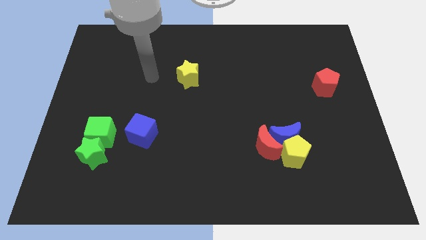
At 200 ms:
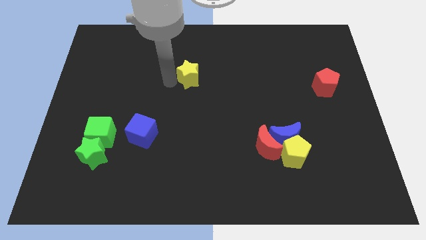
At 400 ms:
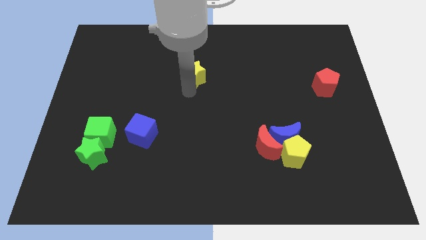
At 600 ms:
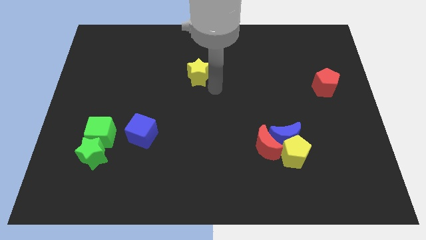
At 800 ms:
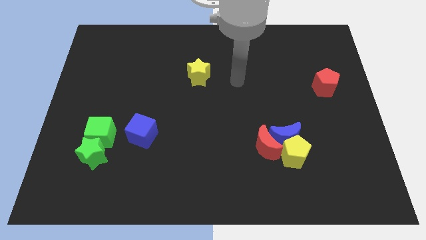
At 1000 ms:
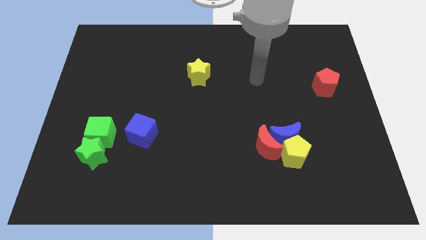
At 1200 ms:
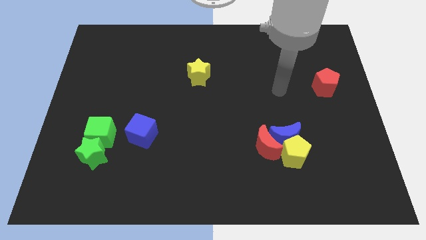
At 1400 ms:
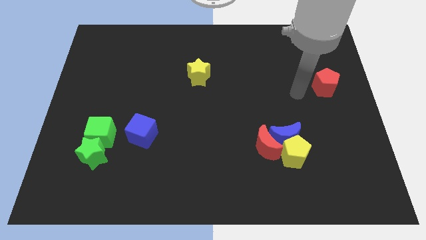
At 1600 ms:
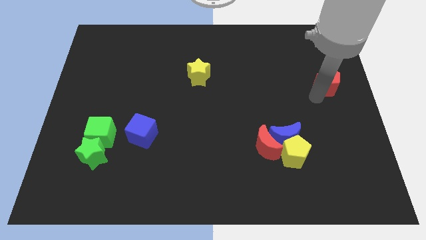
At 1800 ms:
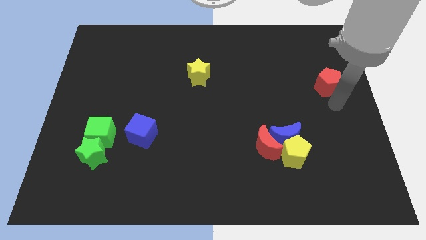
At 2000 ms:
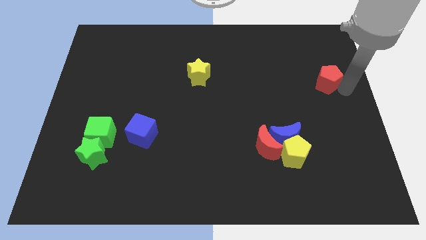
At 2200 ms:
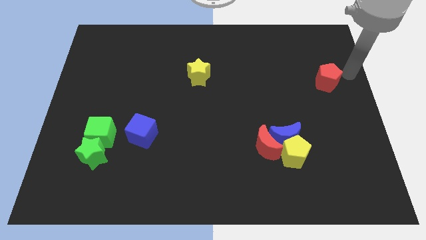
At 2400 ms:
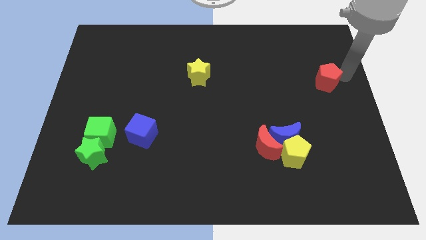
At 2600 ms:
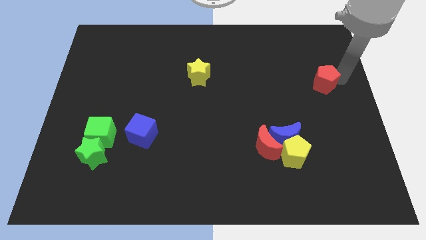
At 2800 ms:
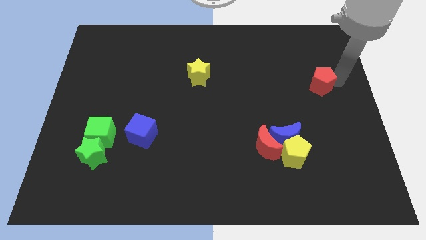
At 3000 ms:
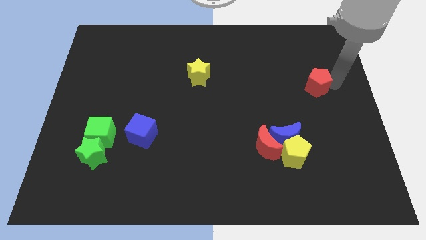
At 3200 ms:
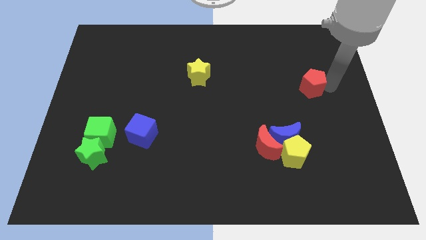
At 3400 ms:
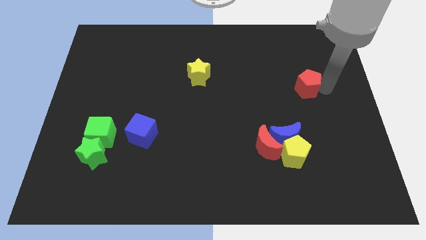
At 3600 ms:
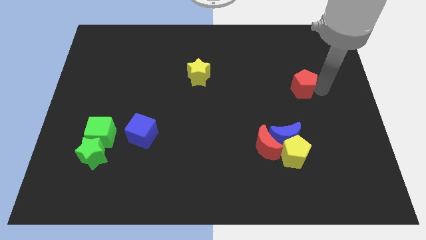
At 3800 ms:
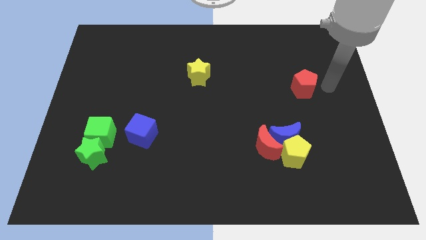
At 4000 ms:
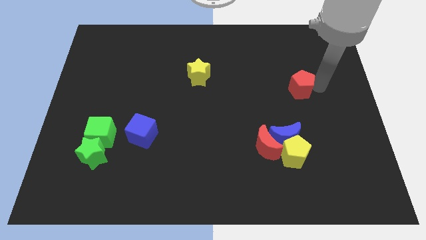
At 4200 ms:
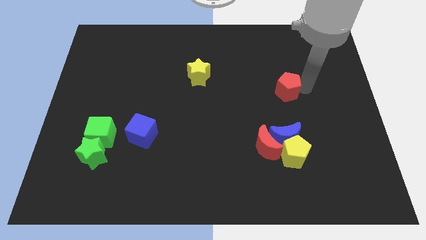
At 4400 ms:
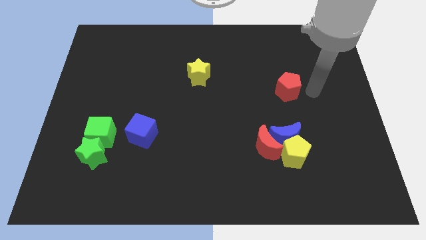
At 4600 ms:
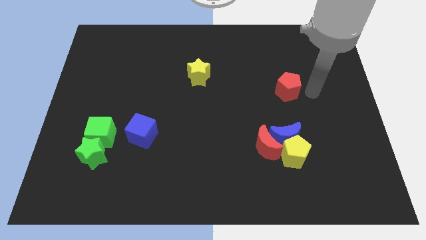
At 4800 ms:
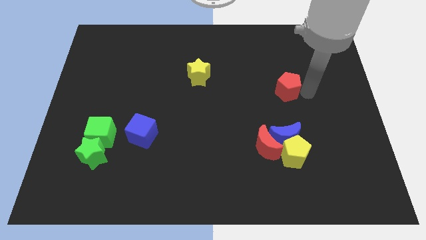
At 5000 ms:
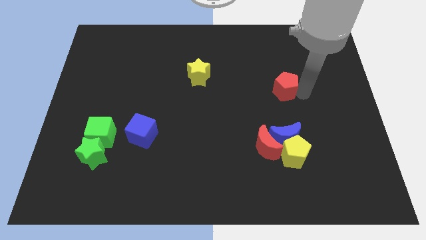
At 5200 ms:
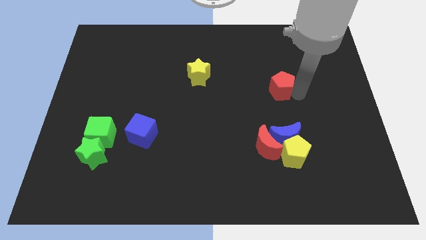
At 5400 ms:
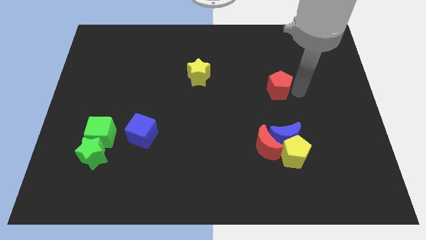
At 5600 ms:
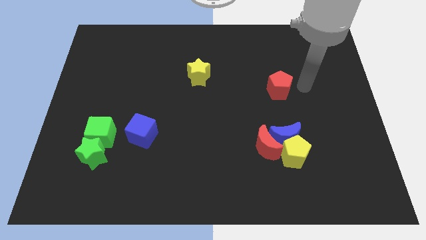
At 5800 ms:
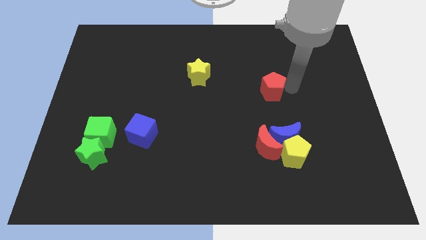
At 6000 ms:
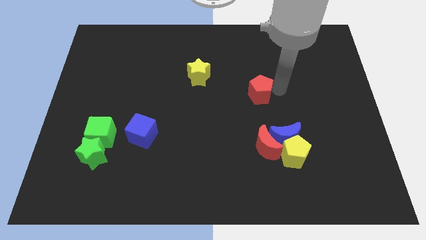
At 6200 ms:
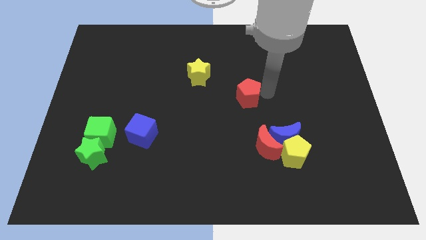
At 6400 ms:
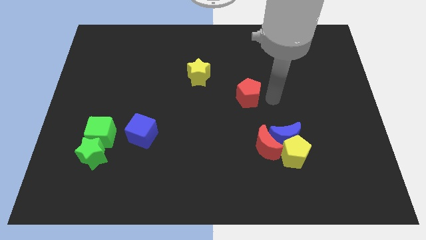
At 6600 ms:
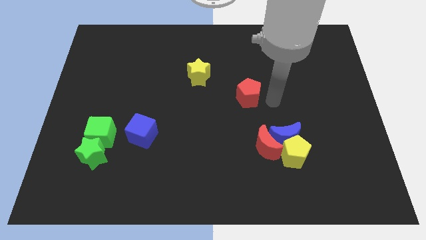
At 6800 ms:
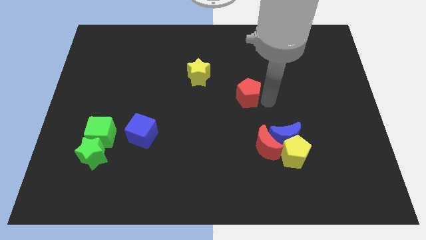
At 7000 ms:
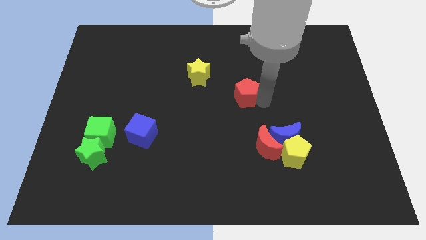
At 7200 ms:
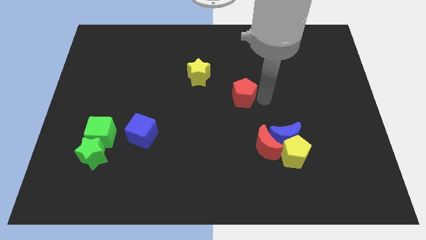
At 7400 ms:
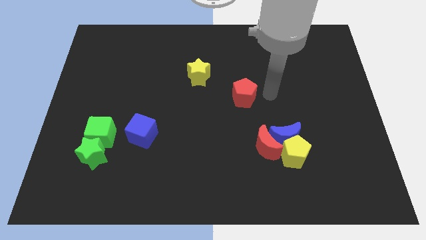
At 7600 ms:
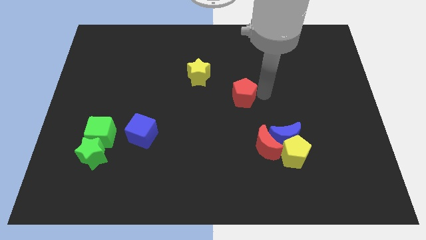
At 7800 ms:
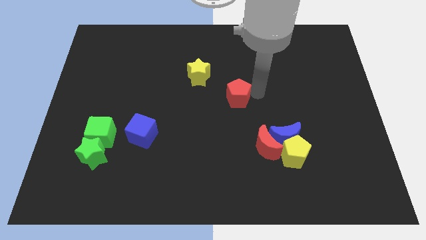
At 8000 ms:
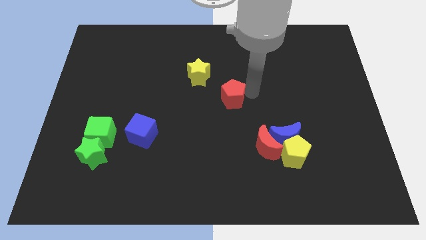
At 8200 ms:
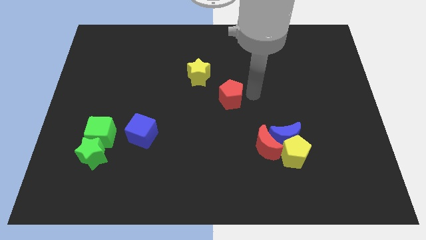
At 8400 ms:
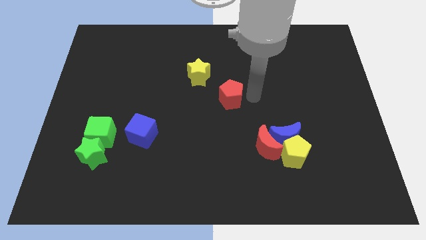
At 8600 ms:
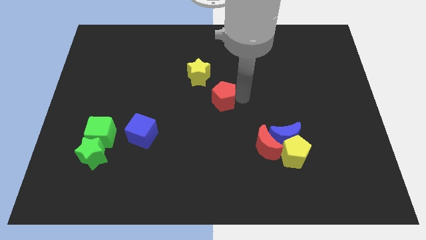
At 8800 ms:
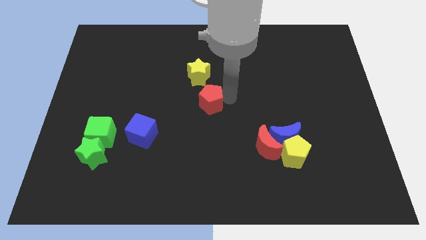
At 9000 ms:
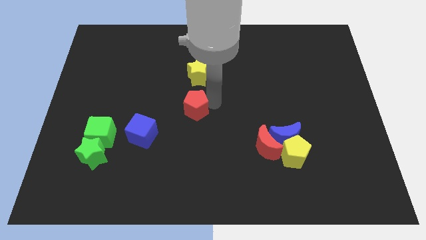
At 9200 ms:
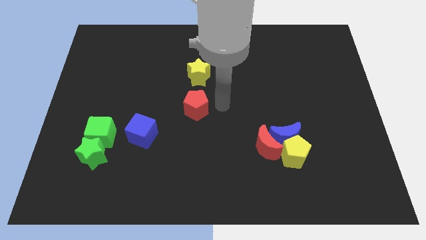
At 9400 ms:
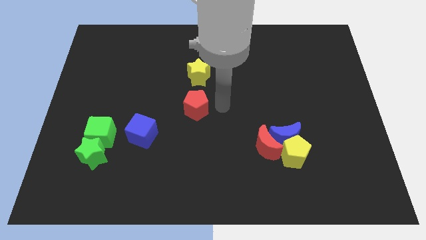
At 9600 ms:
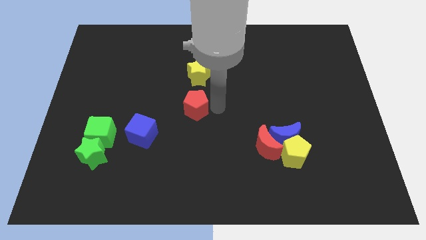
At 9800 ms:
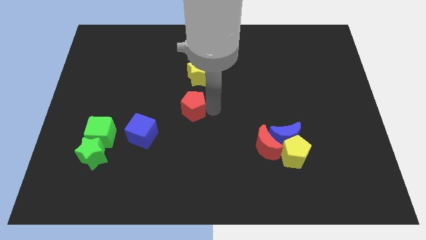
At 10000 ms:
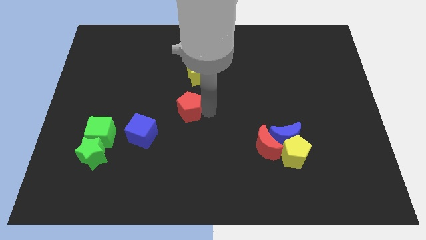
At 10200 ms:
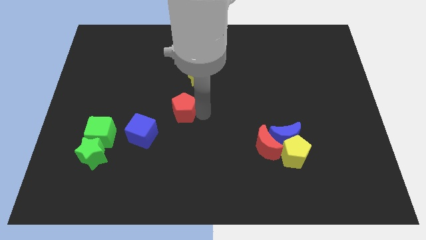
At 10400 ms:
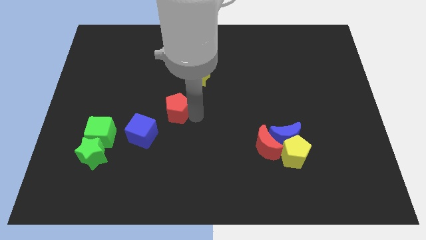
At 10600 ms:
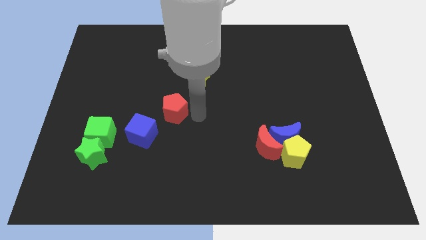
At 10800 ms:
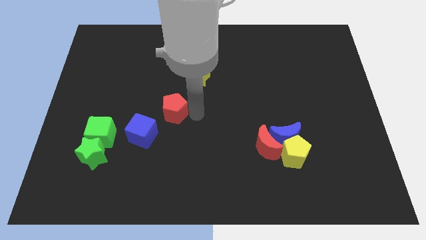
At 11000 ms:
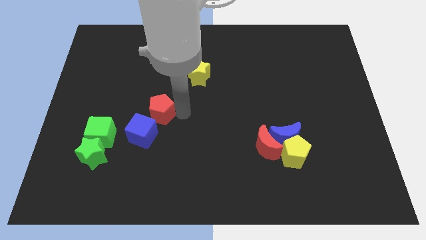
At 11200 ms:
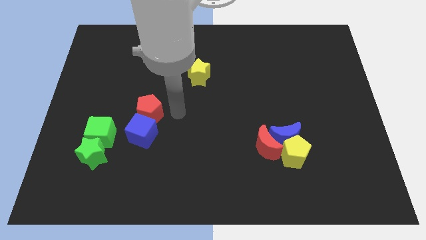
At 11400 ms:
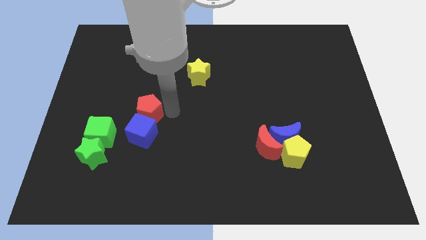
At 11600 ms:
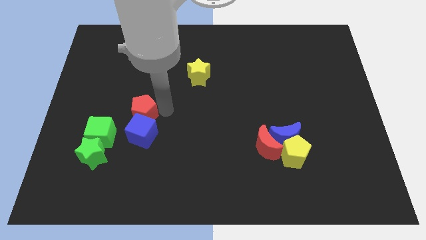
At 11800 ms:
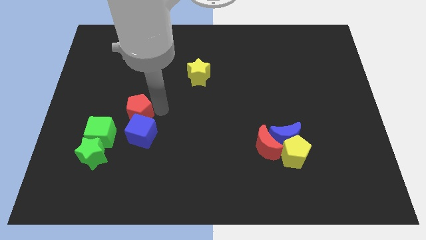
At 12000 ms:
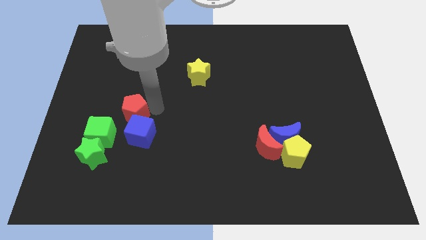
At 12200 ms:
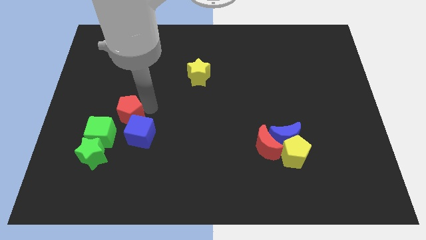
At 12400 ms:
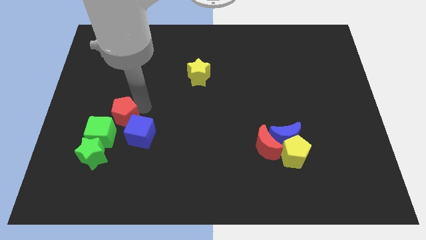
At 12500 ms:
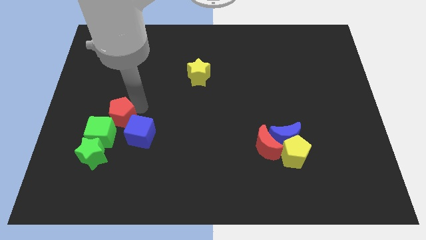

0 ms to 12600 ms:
move the red pentagon above the green star

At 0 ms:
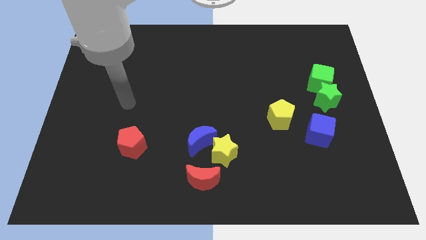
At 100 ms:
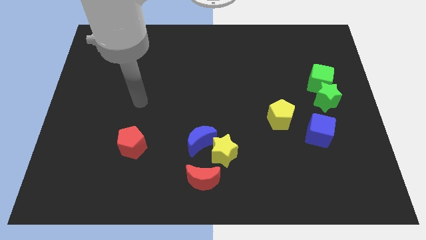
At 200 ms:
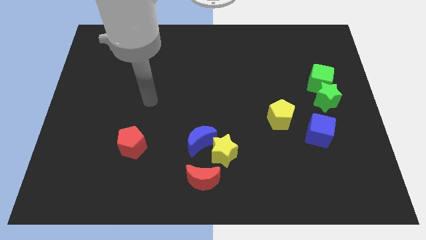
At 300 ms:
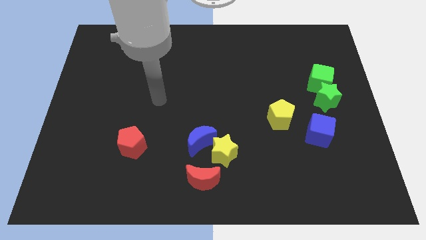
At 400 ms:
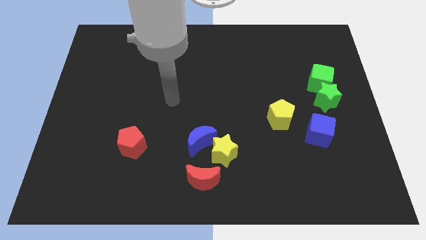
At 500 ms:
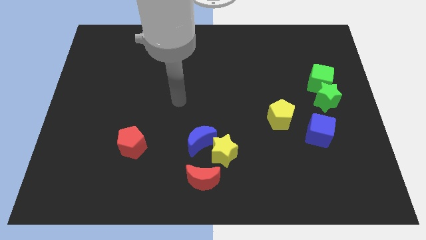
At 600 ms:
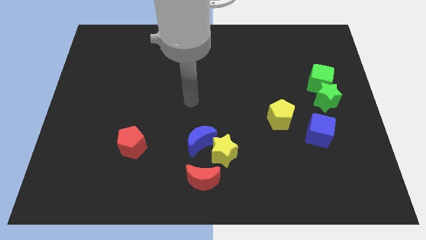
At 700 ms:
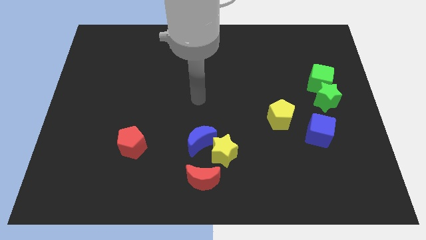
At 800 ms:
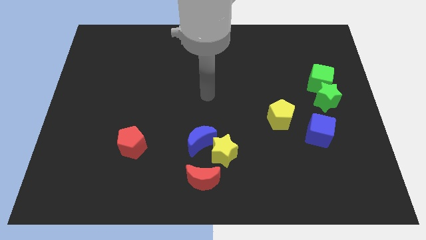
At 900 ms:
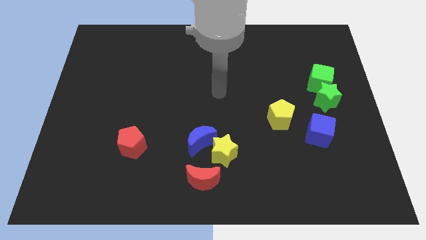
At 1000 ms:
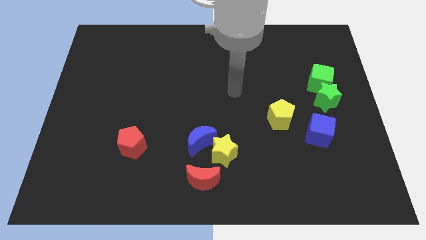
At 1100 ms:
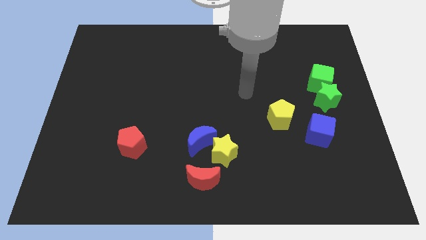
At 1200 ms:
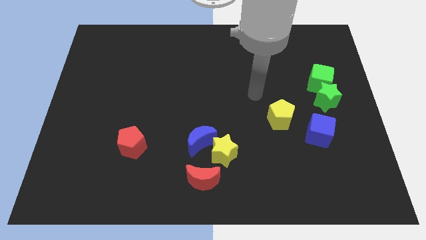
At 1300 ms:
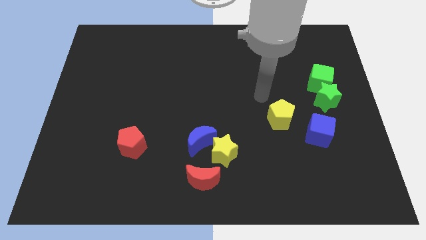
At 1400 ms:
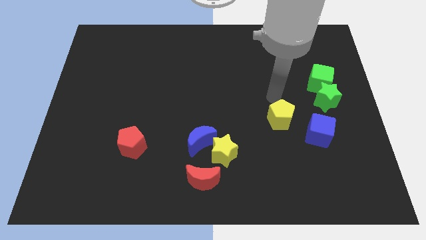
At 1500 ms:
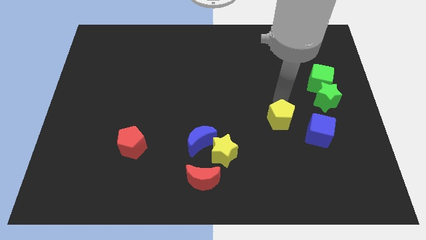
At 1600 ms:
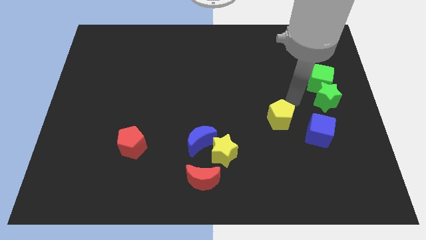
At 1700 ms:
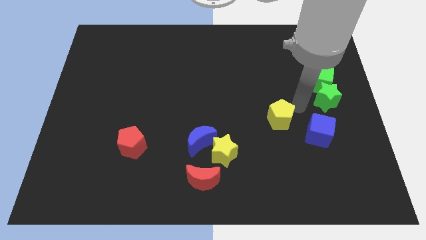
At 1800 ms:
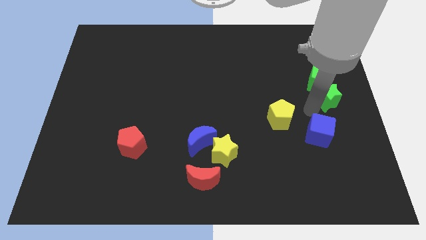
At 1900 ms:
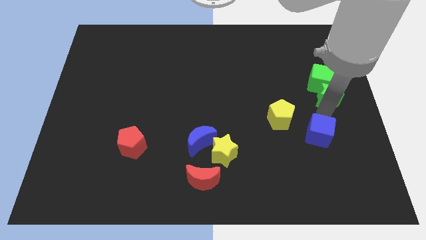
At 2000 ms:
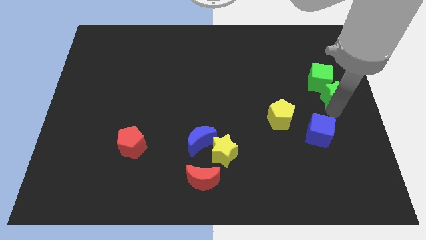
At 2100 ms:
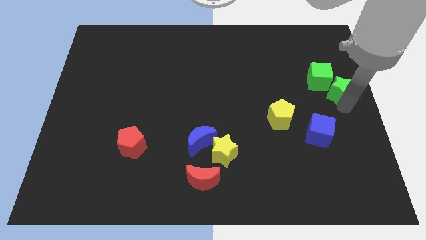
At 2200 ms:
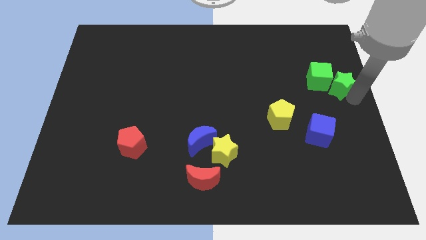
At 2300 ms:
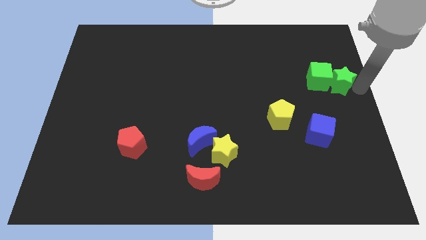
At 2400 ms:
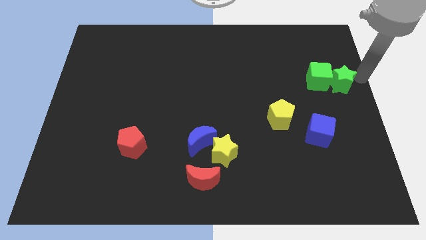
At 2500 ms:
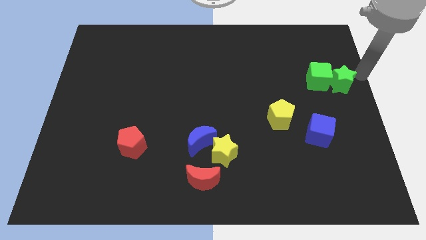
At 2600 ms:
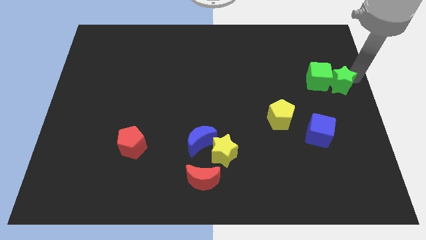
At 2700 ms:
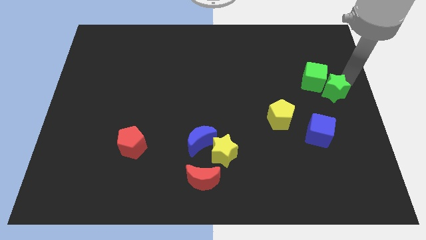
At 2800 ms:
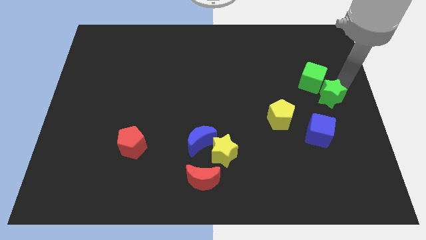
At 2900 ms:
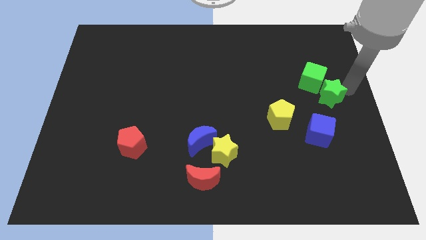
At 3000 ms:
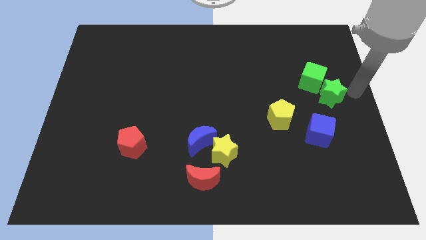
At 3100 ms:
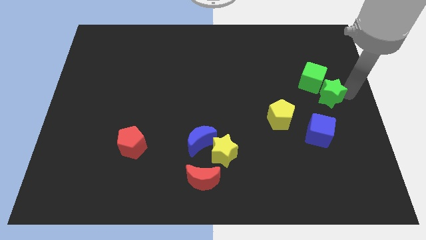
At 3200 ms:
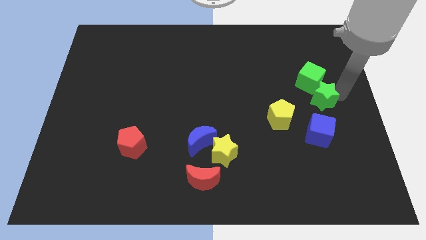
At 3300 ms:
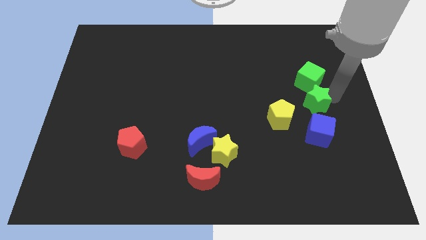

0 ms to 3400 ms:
slide the green star diagonally up and to the right of the yellow pentagon
